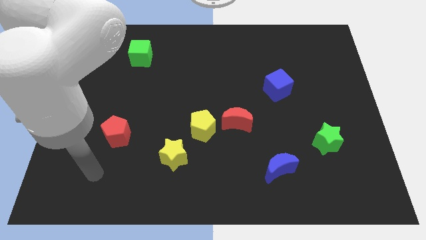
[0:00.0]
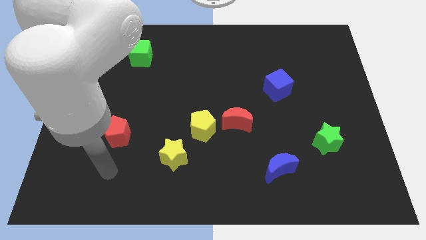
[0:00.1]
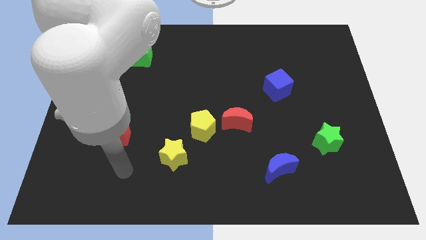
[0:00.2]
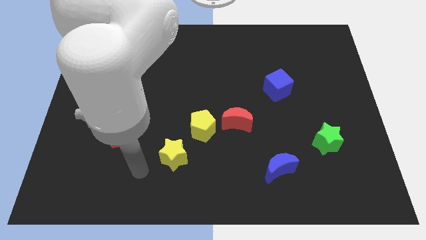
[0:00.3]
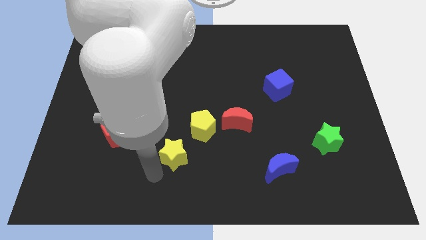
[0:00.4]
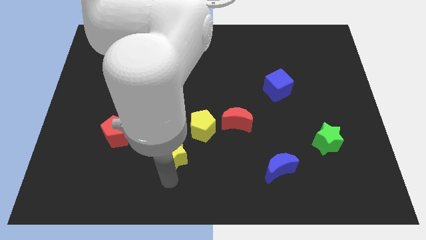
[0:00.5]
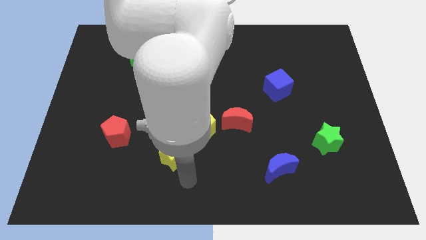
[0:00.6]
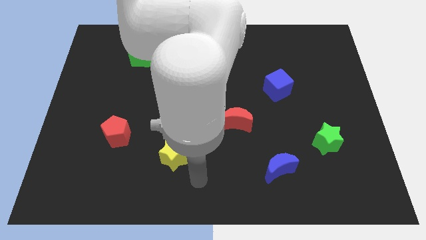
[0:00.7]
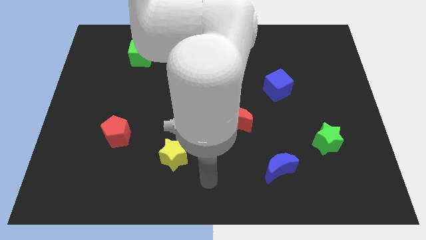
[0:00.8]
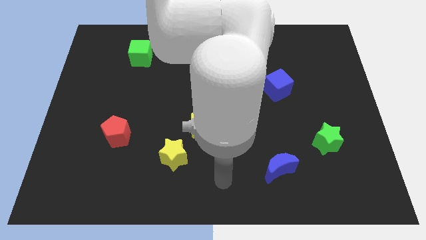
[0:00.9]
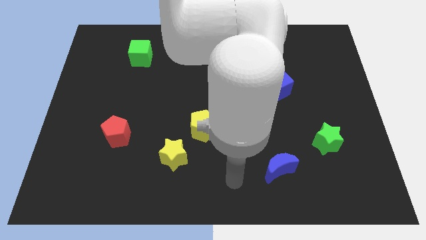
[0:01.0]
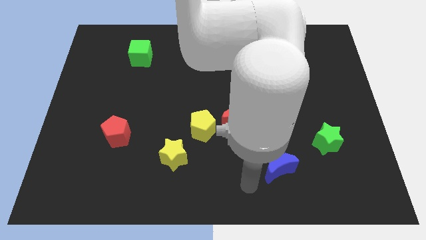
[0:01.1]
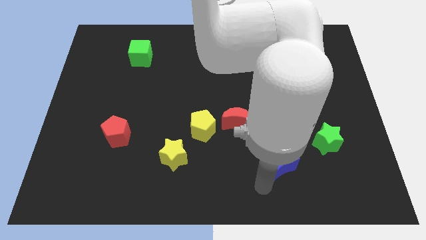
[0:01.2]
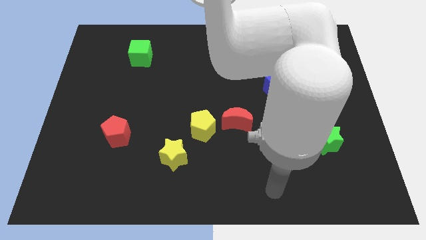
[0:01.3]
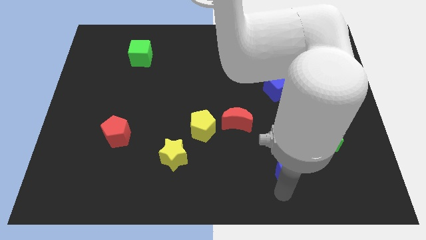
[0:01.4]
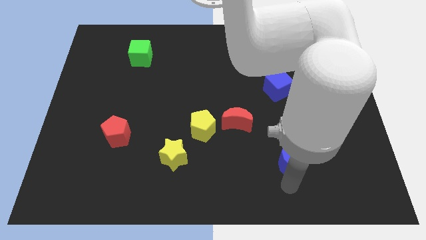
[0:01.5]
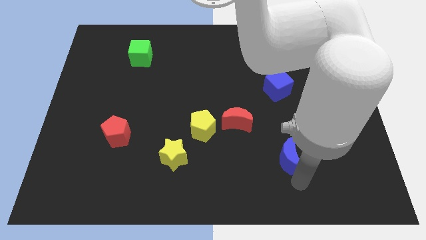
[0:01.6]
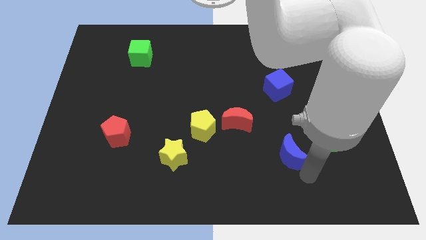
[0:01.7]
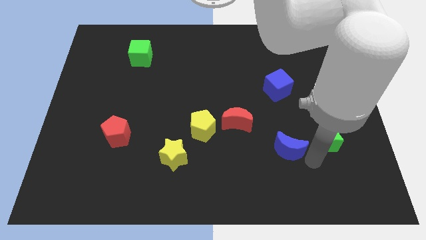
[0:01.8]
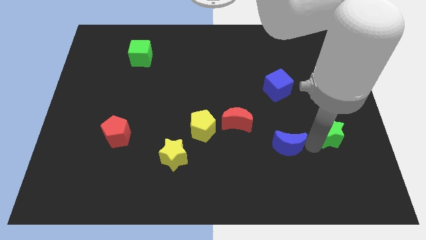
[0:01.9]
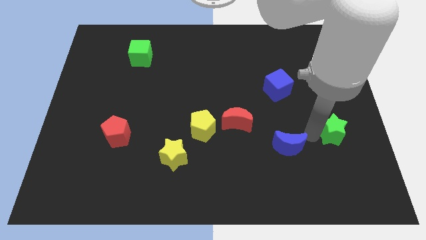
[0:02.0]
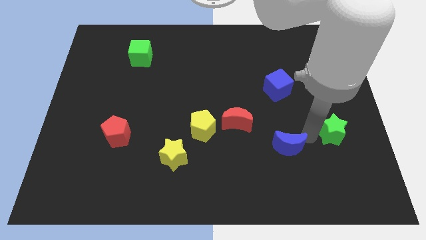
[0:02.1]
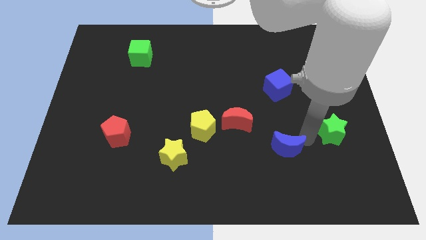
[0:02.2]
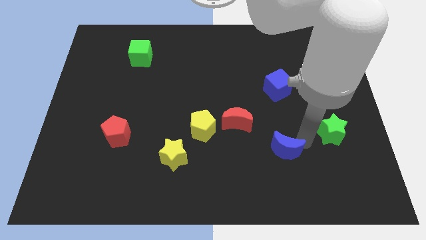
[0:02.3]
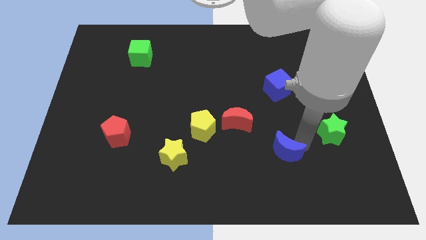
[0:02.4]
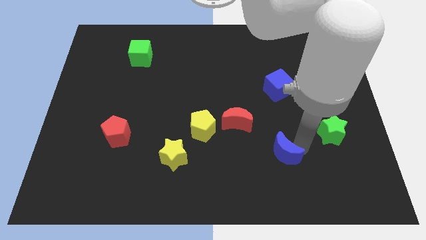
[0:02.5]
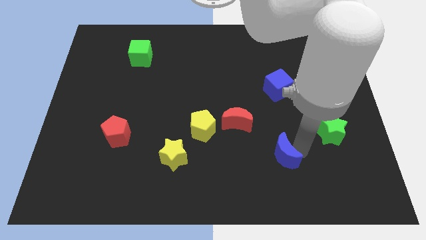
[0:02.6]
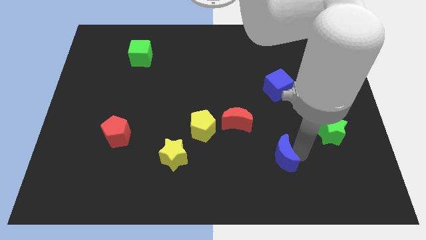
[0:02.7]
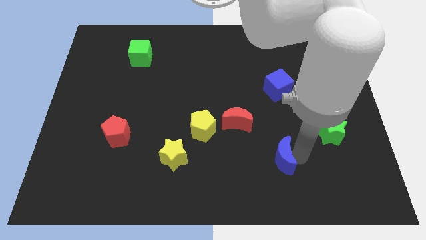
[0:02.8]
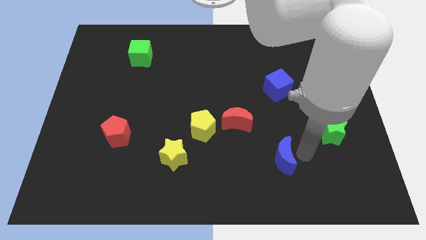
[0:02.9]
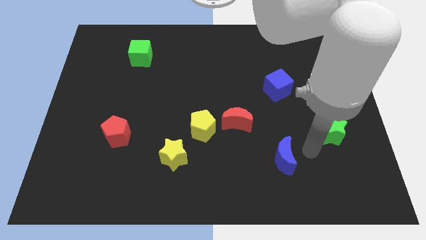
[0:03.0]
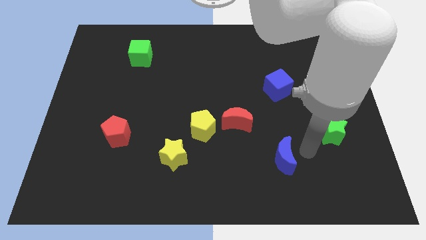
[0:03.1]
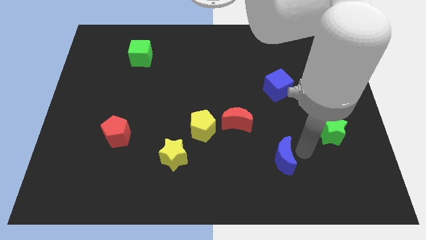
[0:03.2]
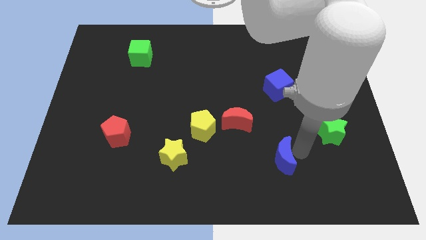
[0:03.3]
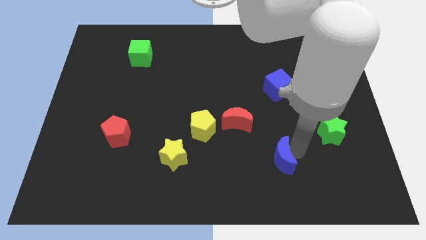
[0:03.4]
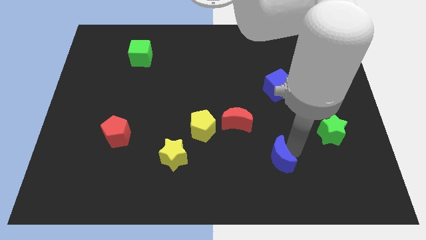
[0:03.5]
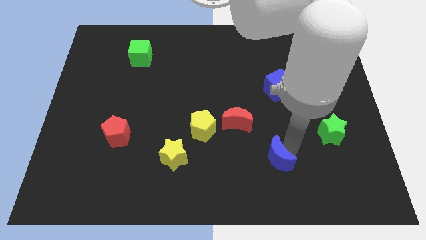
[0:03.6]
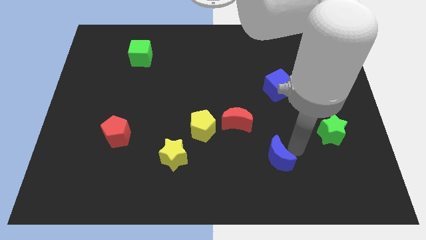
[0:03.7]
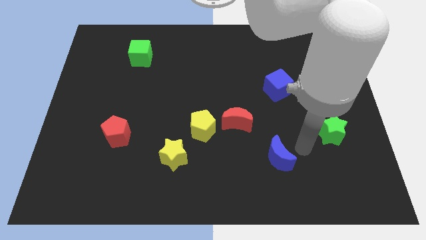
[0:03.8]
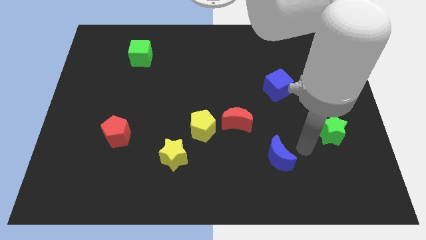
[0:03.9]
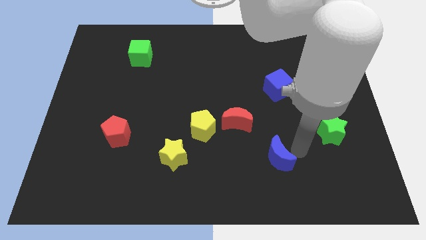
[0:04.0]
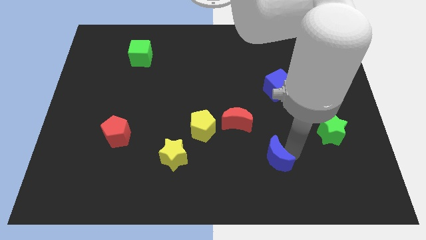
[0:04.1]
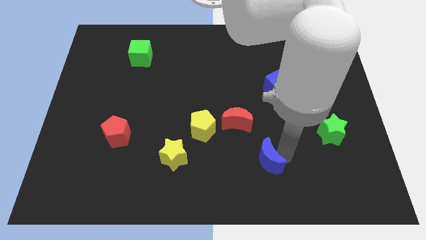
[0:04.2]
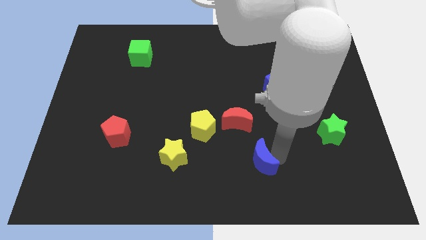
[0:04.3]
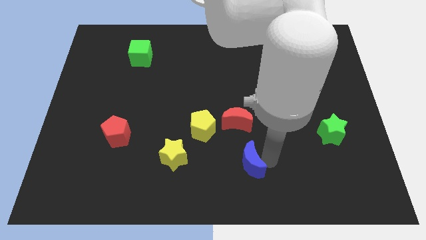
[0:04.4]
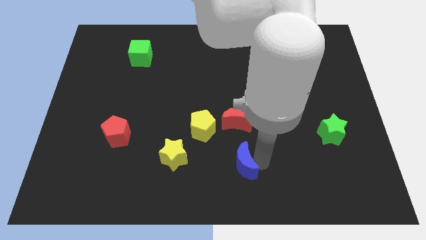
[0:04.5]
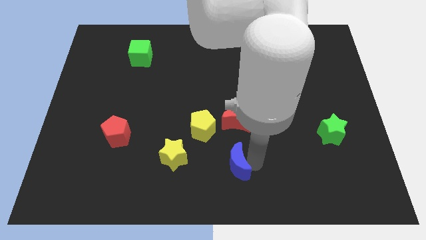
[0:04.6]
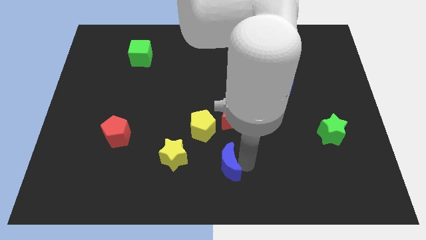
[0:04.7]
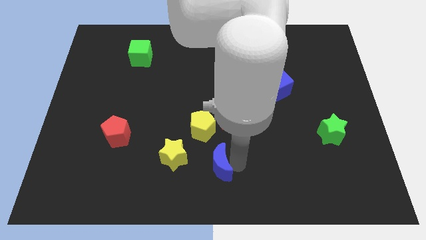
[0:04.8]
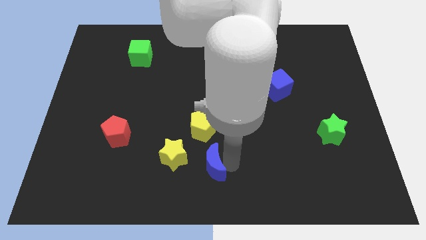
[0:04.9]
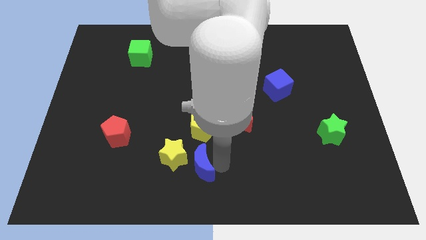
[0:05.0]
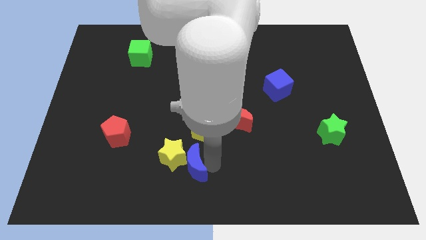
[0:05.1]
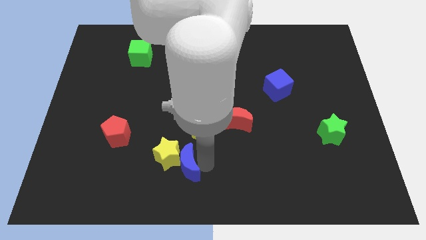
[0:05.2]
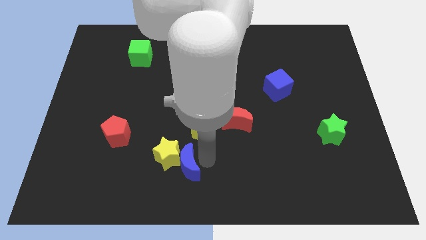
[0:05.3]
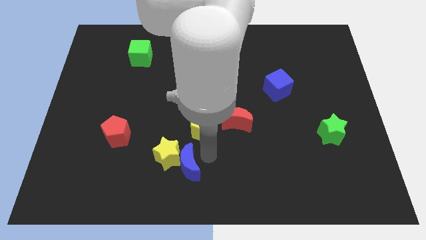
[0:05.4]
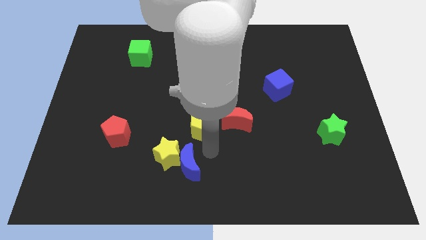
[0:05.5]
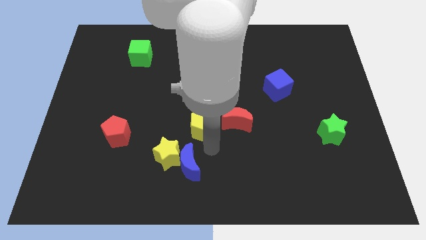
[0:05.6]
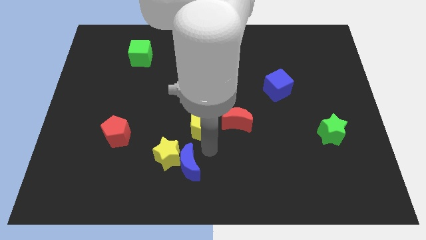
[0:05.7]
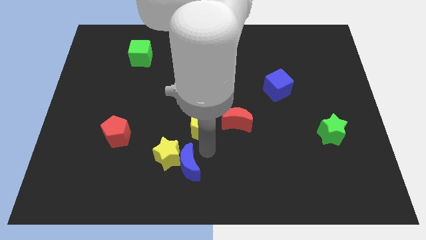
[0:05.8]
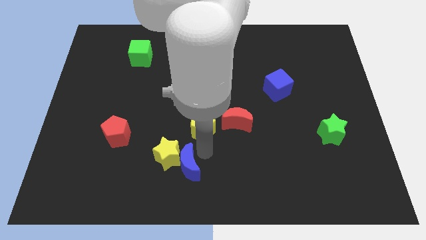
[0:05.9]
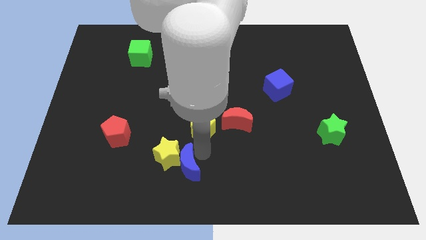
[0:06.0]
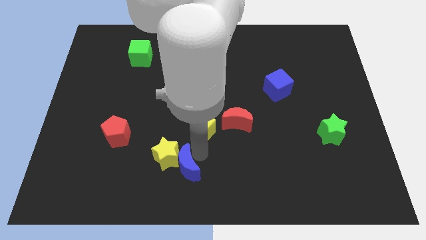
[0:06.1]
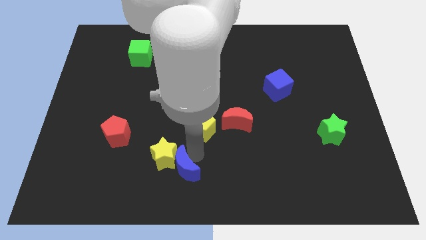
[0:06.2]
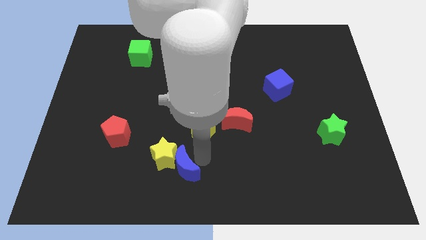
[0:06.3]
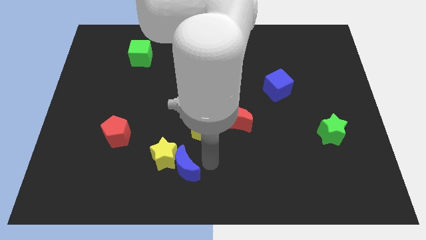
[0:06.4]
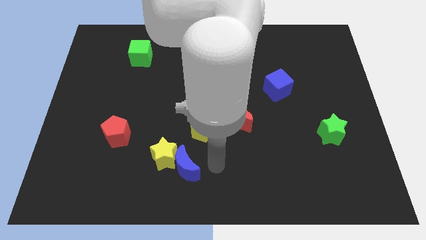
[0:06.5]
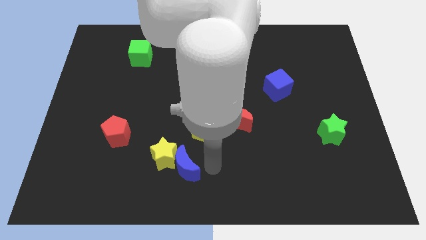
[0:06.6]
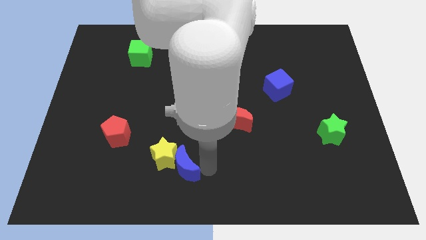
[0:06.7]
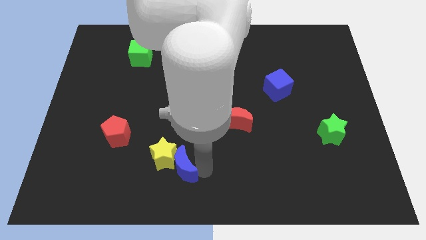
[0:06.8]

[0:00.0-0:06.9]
move the blue moon left

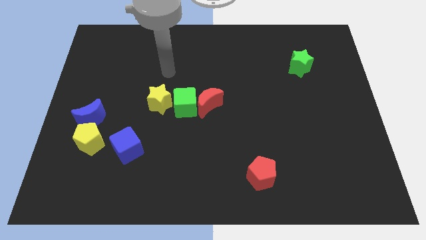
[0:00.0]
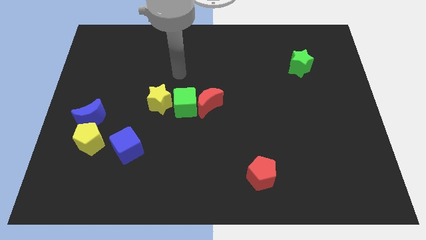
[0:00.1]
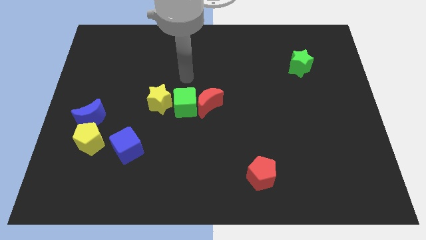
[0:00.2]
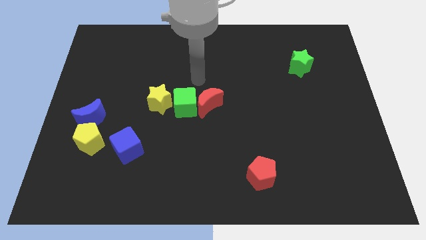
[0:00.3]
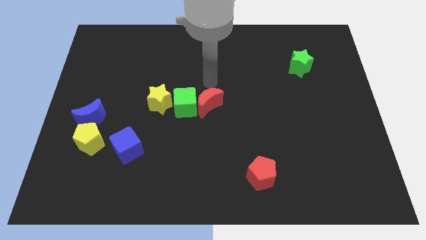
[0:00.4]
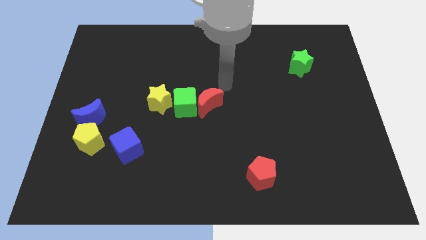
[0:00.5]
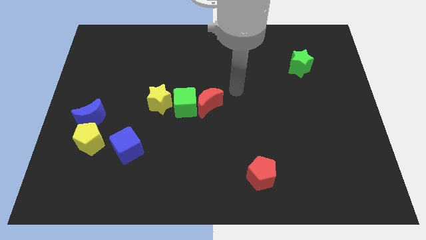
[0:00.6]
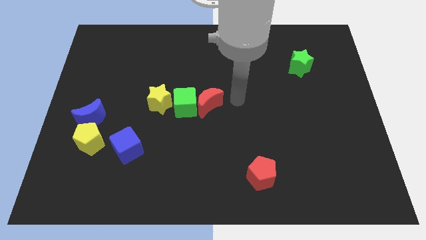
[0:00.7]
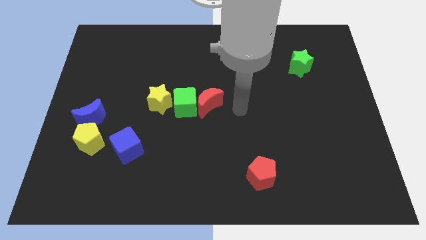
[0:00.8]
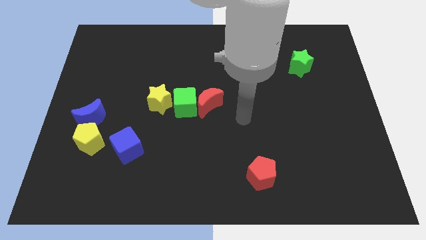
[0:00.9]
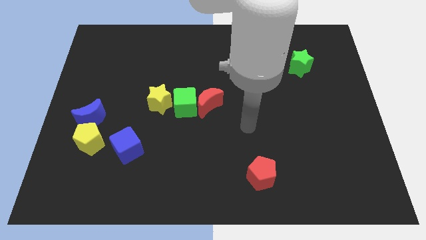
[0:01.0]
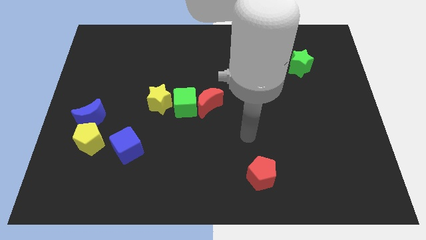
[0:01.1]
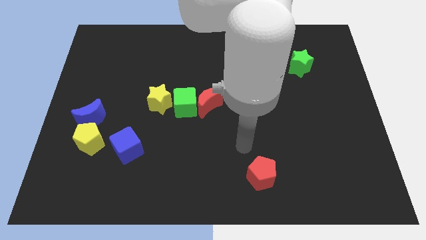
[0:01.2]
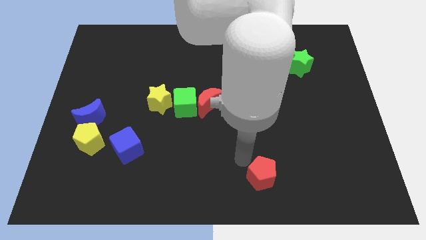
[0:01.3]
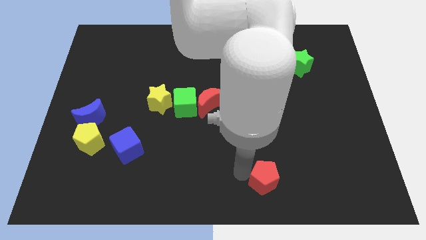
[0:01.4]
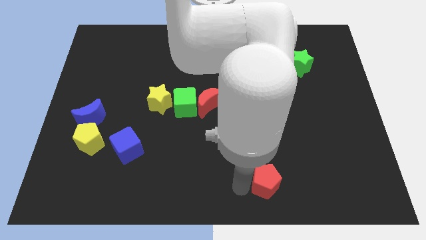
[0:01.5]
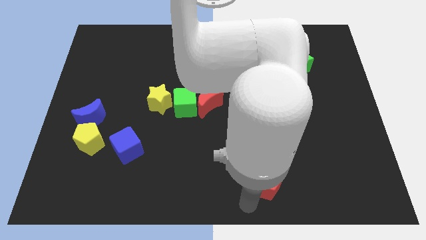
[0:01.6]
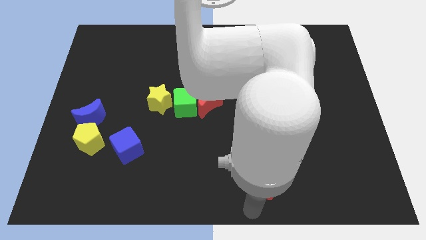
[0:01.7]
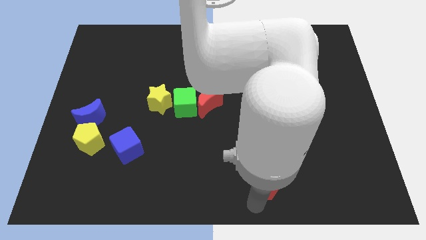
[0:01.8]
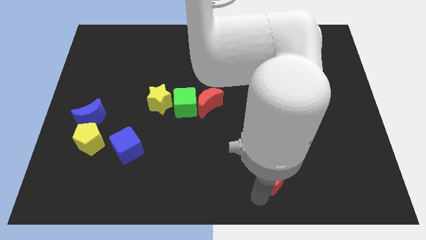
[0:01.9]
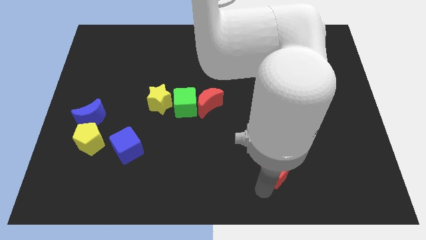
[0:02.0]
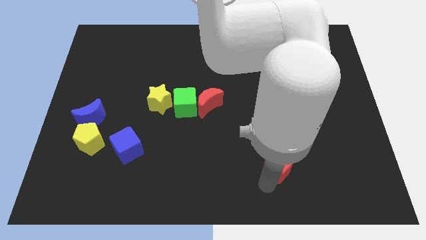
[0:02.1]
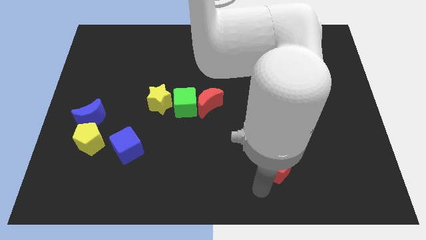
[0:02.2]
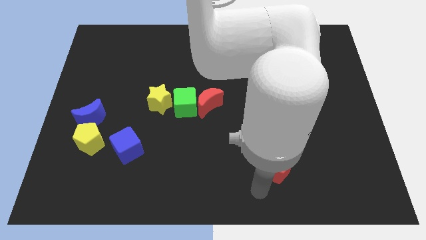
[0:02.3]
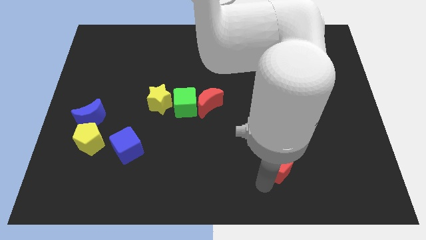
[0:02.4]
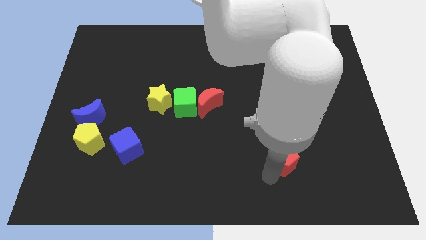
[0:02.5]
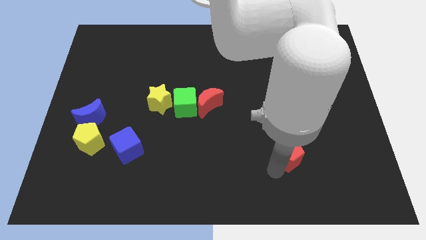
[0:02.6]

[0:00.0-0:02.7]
slightly move the red pentagon up and then right
